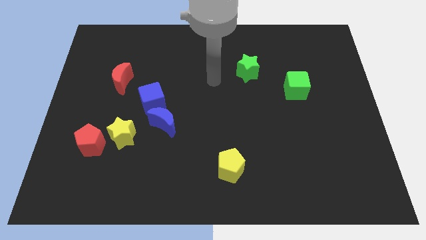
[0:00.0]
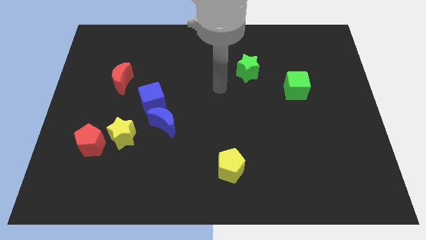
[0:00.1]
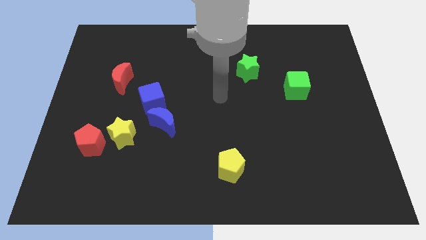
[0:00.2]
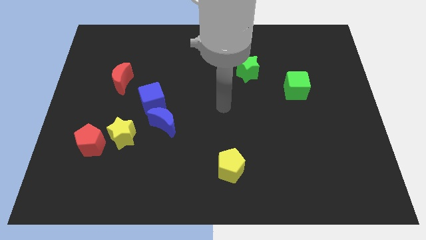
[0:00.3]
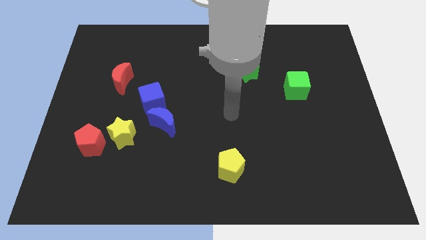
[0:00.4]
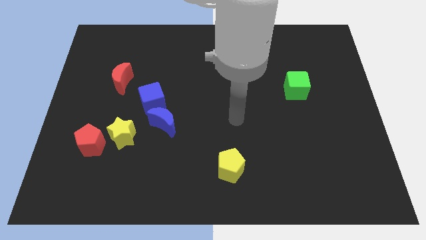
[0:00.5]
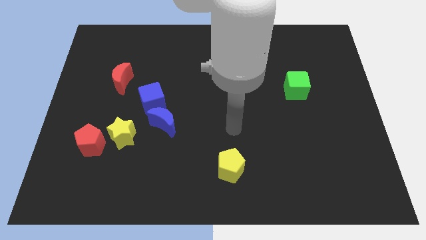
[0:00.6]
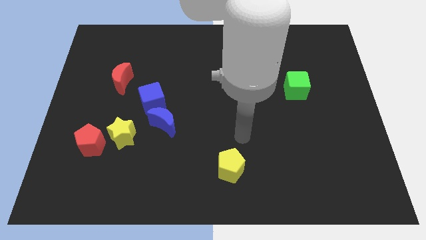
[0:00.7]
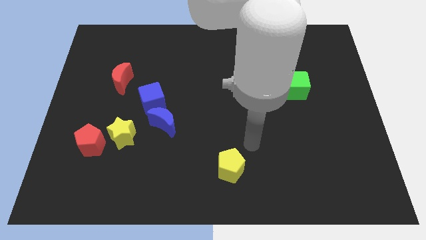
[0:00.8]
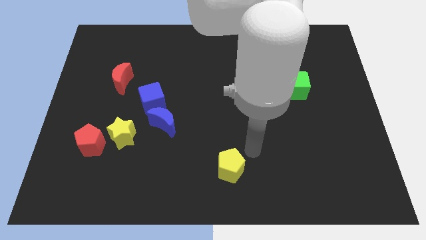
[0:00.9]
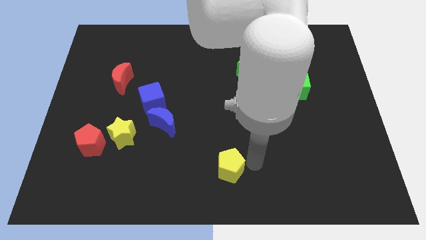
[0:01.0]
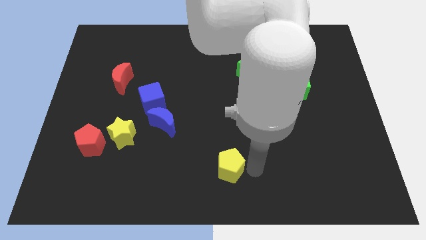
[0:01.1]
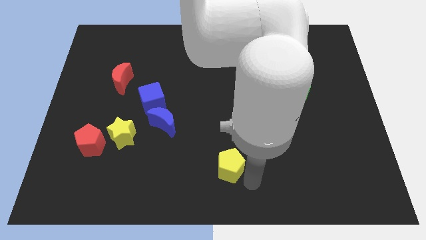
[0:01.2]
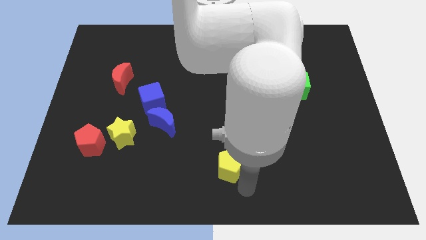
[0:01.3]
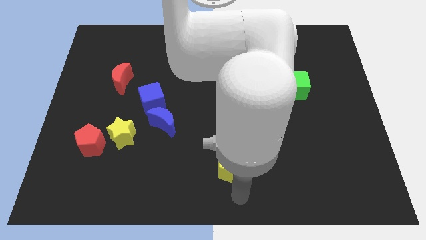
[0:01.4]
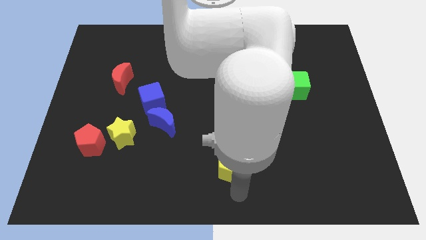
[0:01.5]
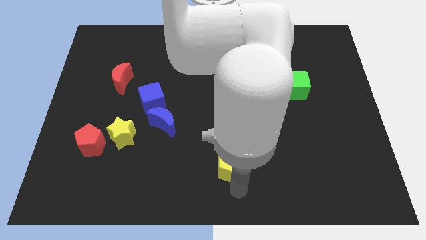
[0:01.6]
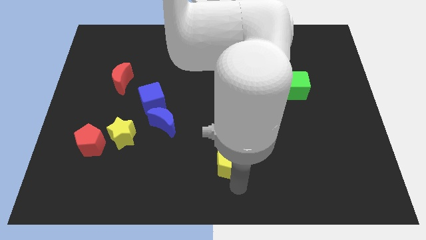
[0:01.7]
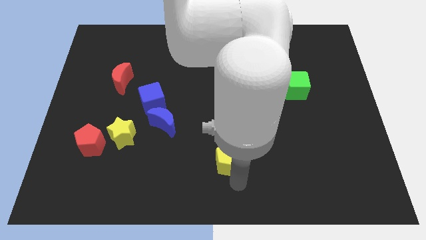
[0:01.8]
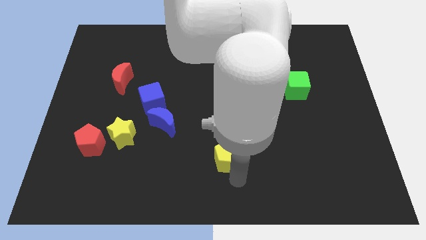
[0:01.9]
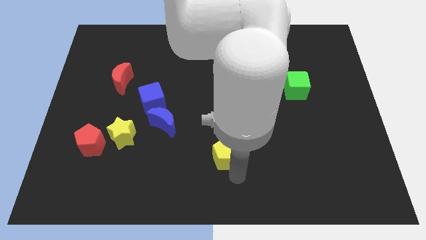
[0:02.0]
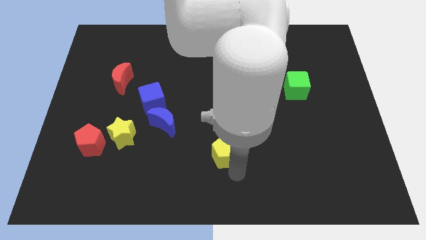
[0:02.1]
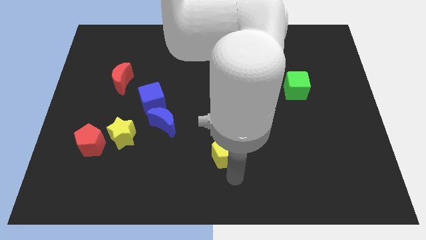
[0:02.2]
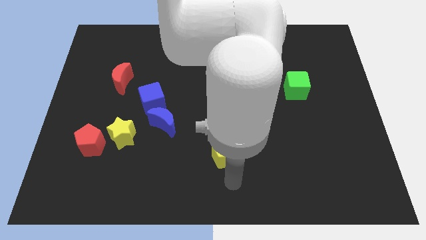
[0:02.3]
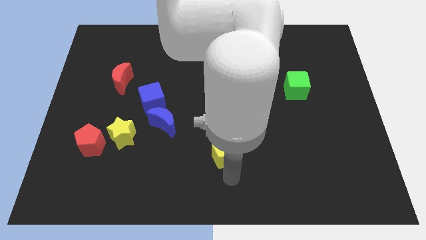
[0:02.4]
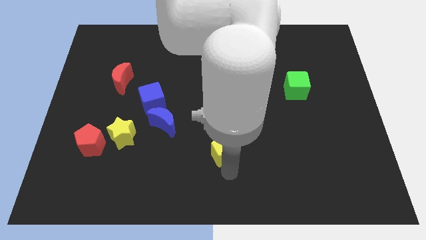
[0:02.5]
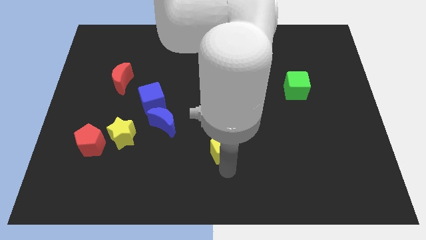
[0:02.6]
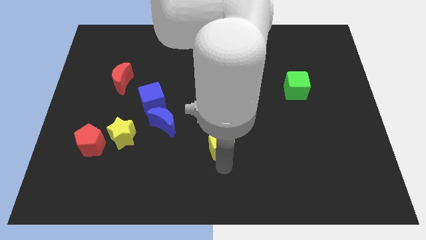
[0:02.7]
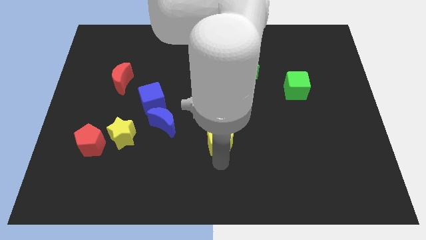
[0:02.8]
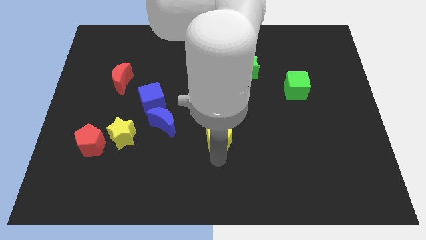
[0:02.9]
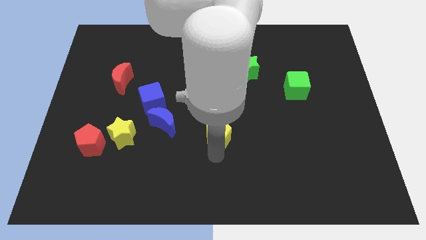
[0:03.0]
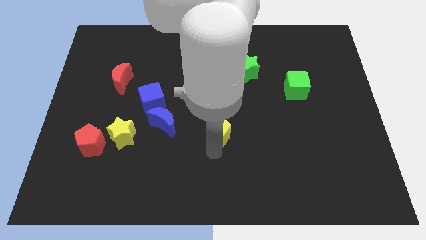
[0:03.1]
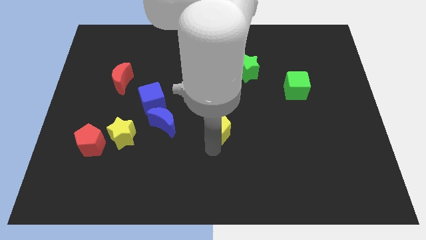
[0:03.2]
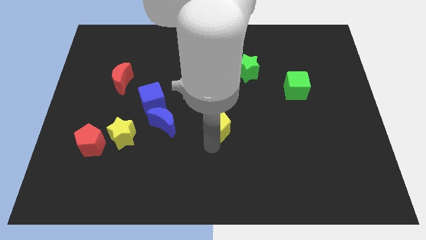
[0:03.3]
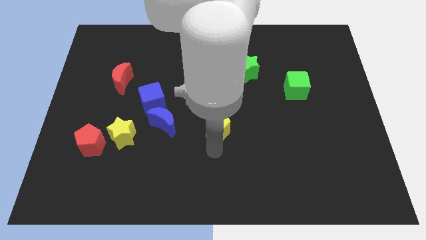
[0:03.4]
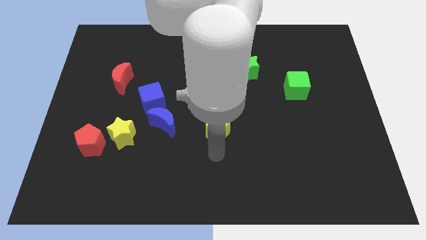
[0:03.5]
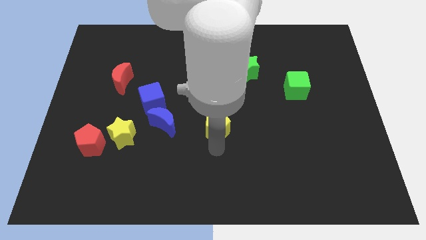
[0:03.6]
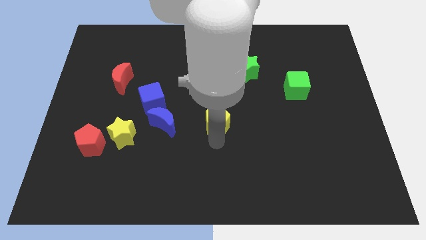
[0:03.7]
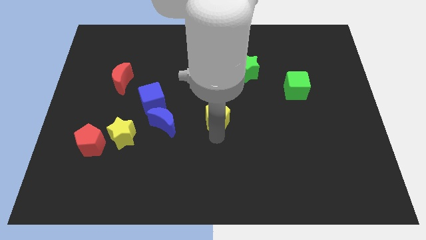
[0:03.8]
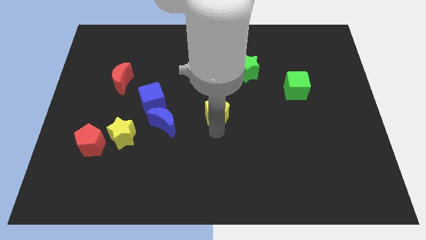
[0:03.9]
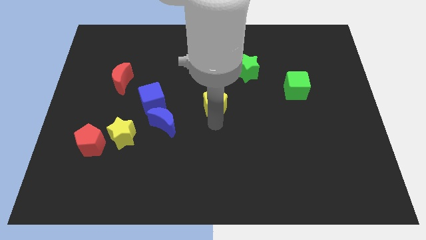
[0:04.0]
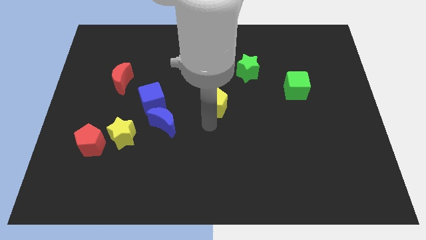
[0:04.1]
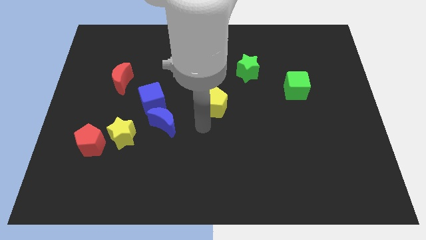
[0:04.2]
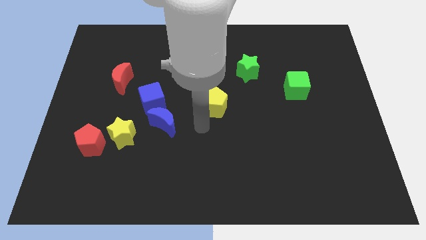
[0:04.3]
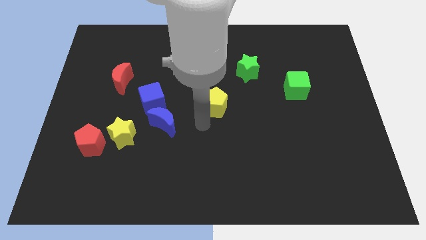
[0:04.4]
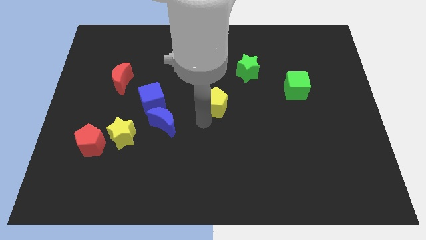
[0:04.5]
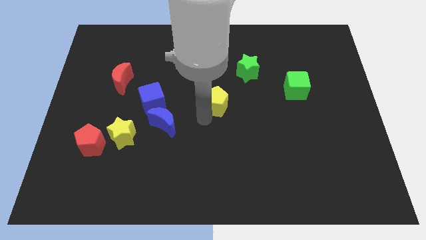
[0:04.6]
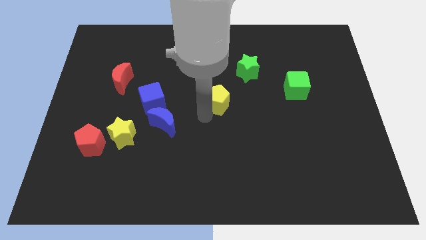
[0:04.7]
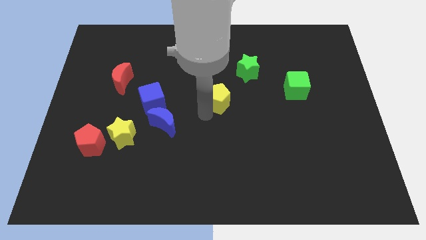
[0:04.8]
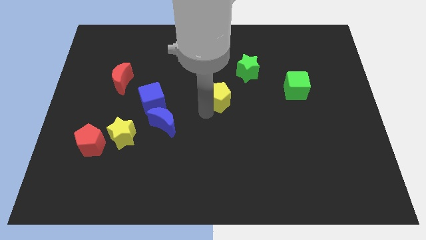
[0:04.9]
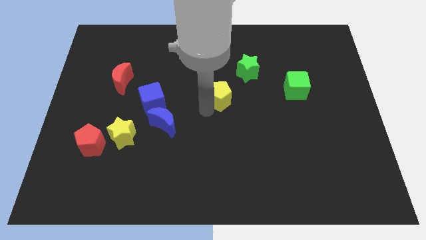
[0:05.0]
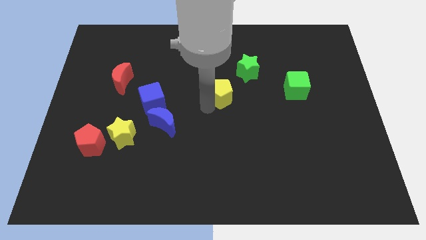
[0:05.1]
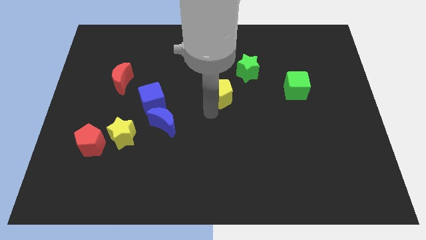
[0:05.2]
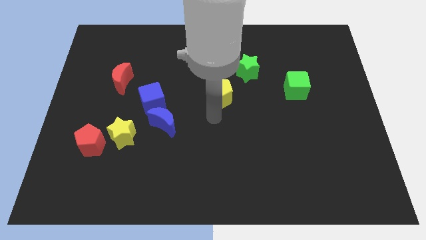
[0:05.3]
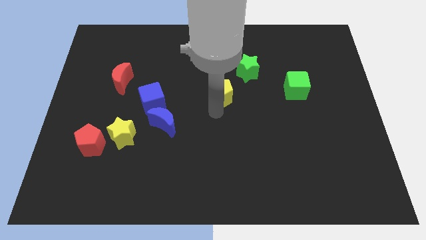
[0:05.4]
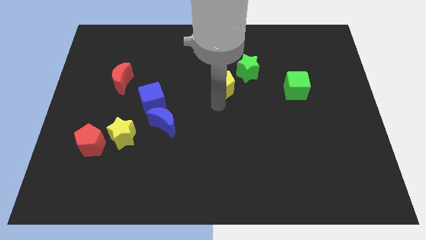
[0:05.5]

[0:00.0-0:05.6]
move the yellow pentagon up

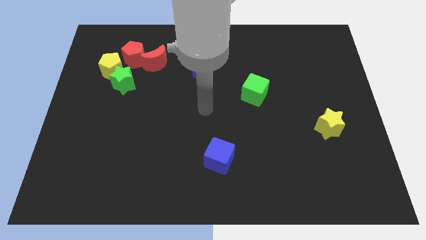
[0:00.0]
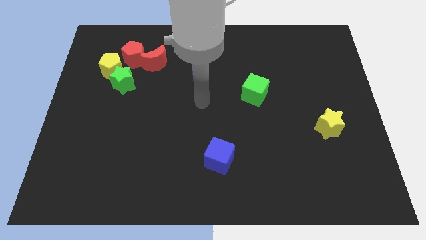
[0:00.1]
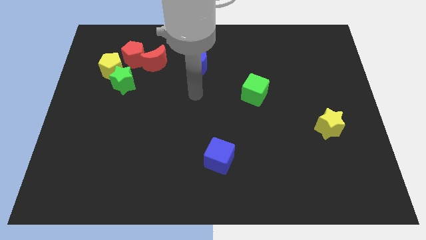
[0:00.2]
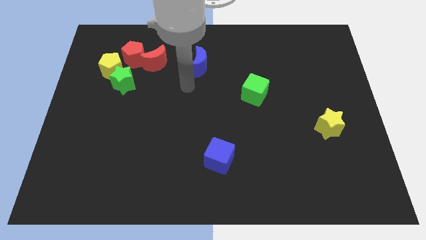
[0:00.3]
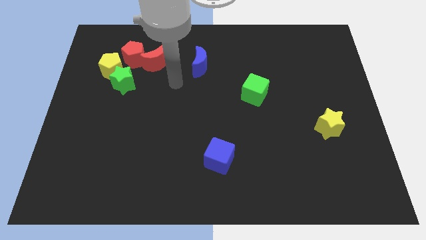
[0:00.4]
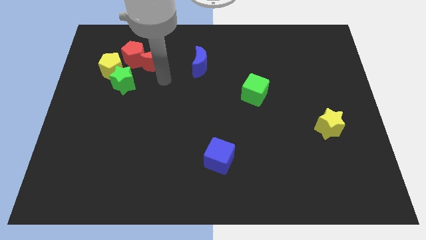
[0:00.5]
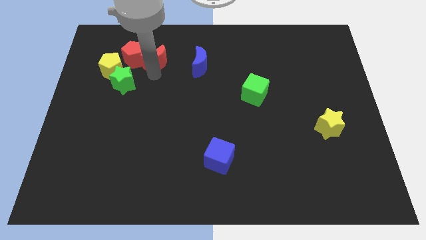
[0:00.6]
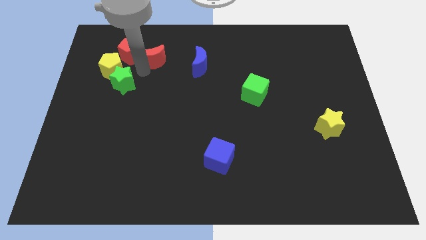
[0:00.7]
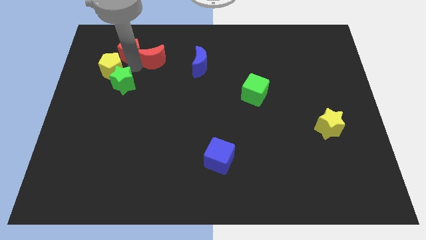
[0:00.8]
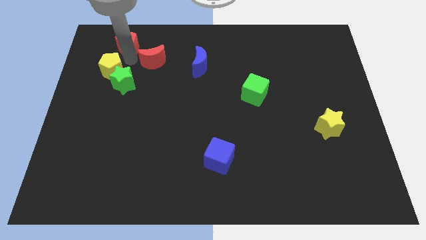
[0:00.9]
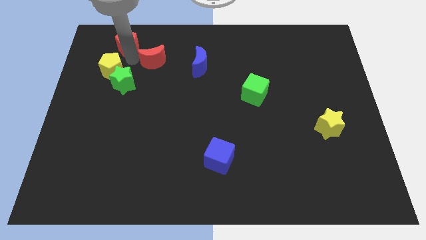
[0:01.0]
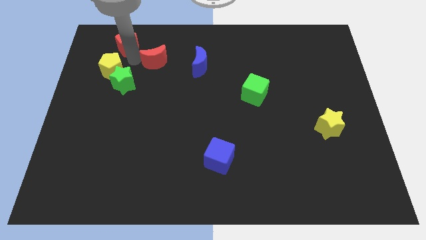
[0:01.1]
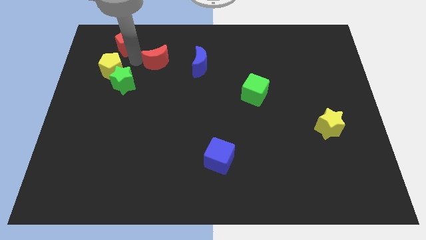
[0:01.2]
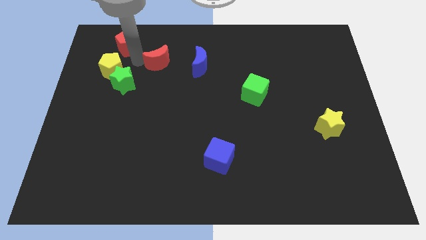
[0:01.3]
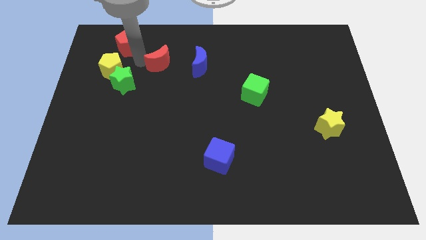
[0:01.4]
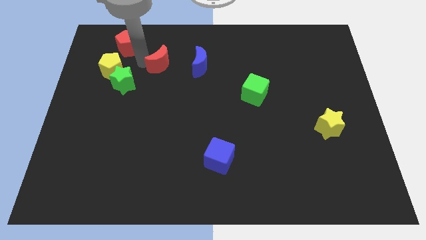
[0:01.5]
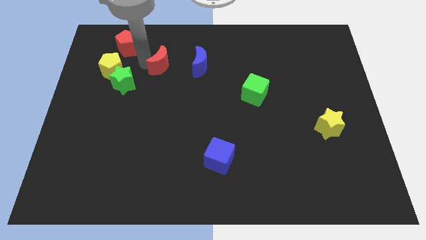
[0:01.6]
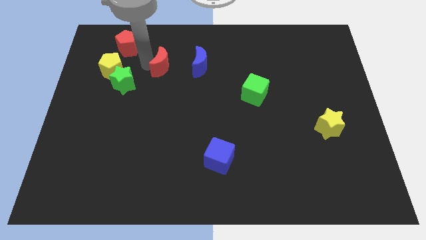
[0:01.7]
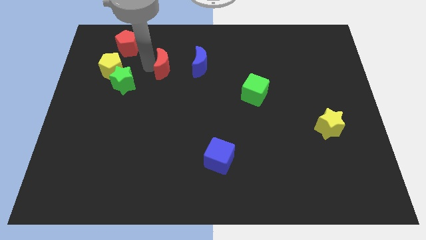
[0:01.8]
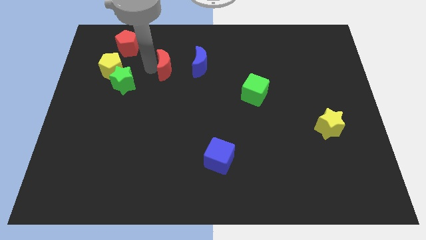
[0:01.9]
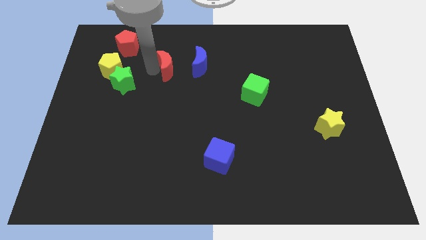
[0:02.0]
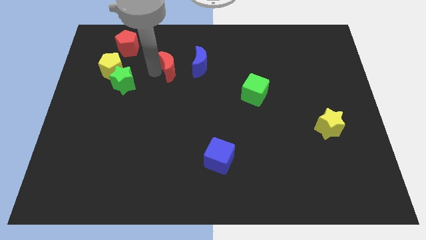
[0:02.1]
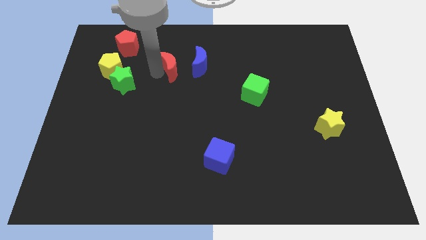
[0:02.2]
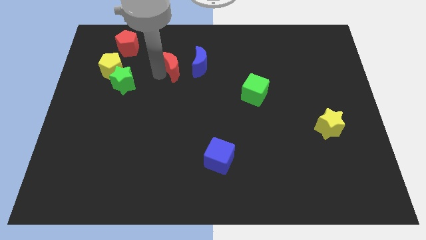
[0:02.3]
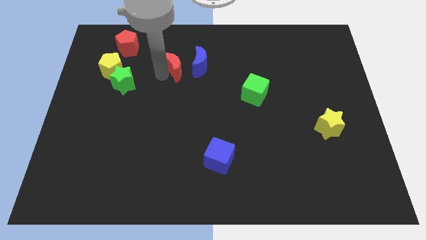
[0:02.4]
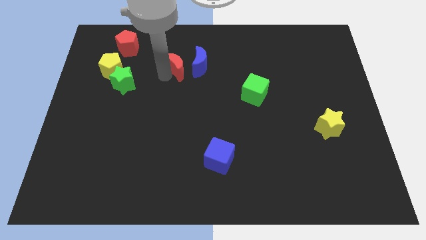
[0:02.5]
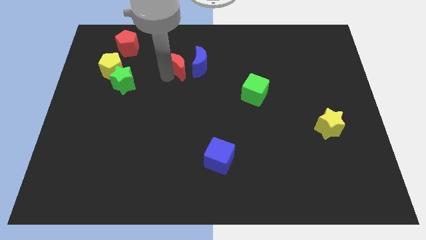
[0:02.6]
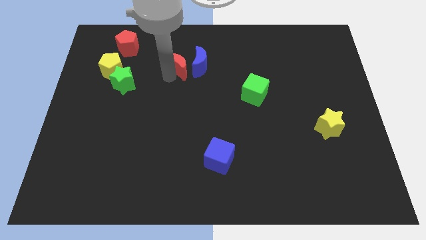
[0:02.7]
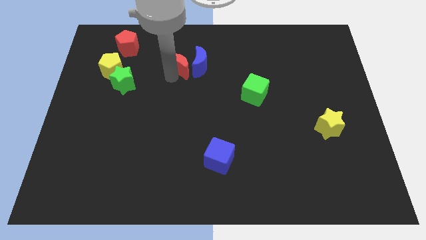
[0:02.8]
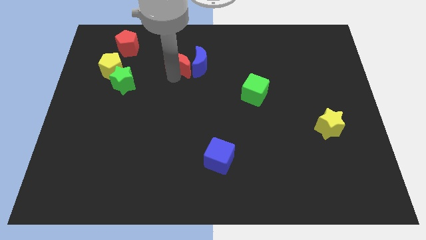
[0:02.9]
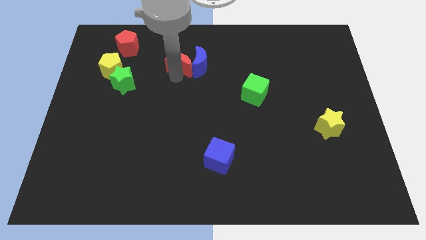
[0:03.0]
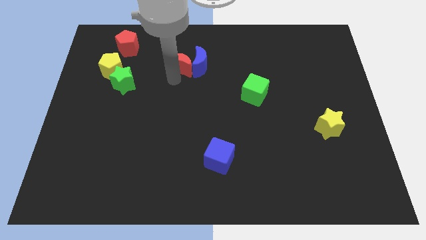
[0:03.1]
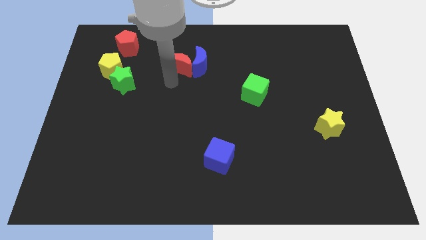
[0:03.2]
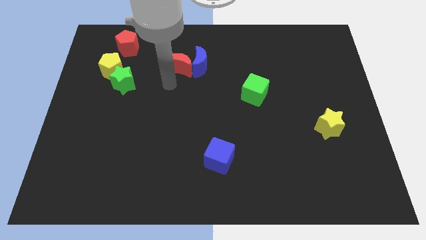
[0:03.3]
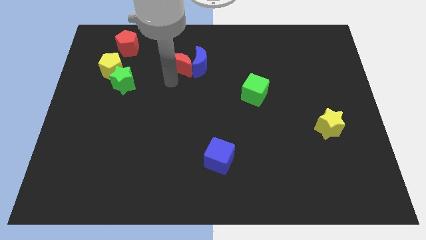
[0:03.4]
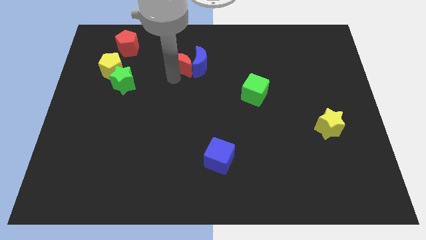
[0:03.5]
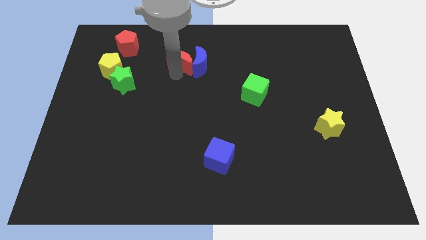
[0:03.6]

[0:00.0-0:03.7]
push the red moon slightly right
